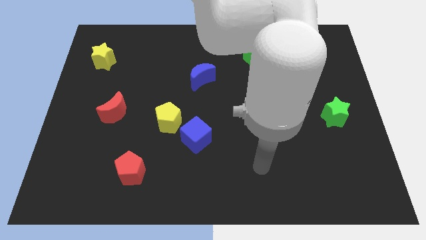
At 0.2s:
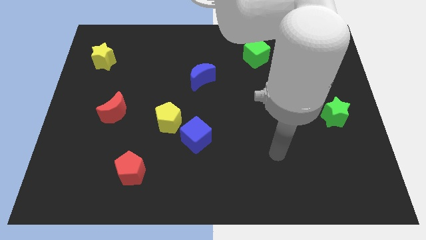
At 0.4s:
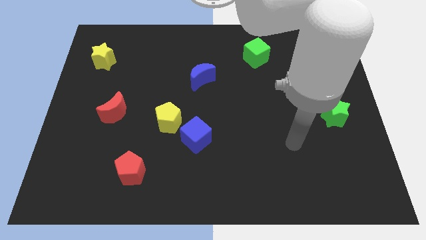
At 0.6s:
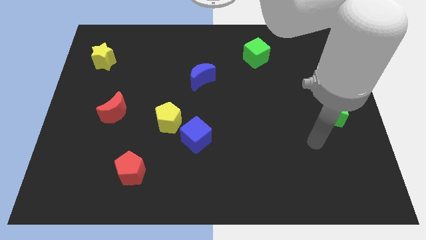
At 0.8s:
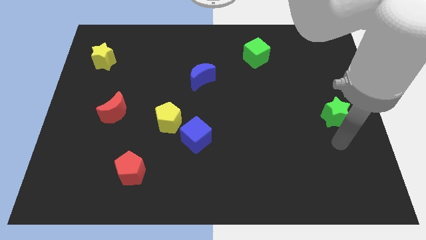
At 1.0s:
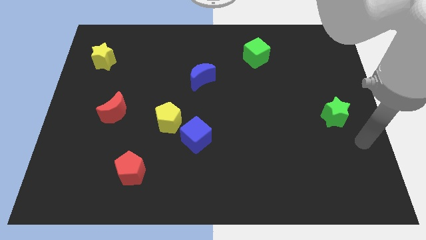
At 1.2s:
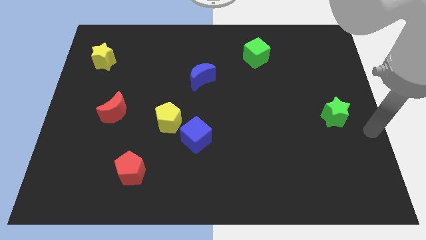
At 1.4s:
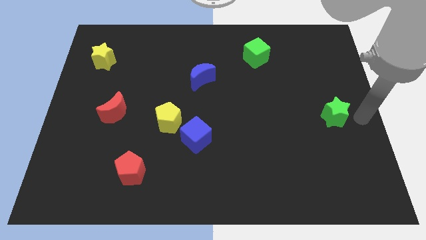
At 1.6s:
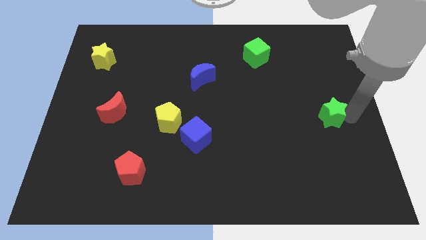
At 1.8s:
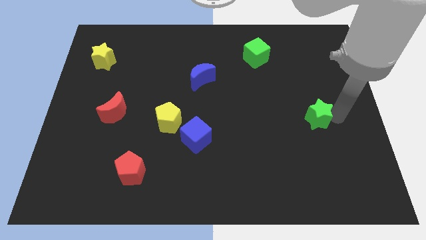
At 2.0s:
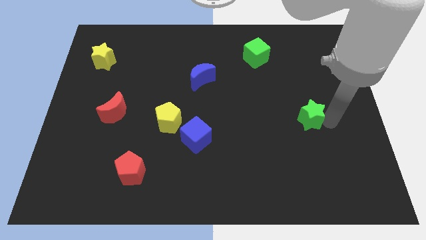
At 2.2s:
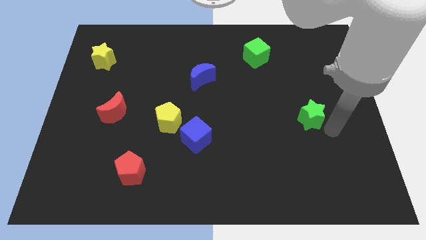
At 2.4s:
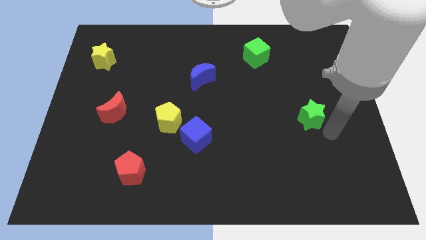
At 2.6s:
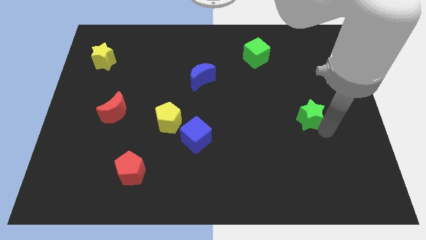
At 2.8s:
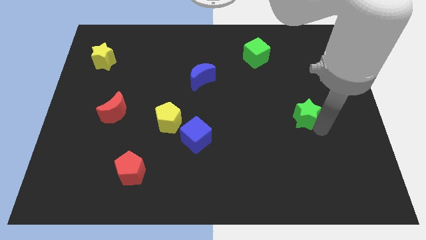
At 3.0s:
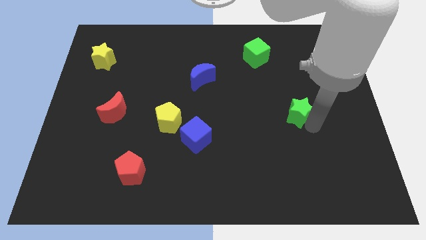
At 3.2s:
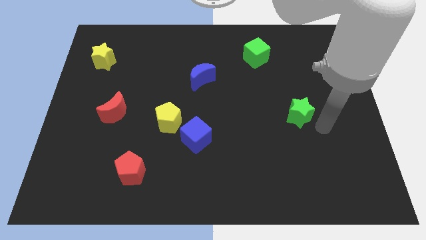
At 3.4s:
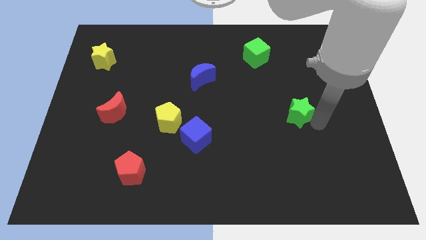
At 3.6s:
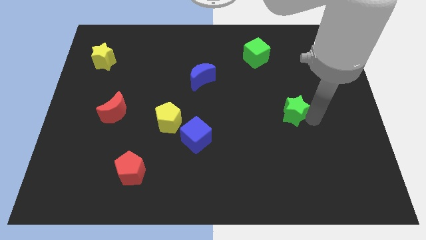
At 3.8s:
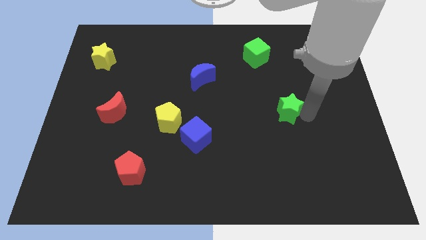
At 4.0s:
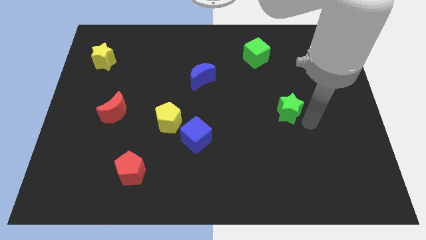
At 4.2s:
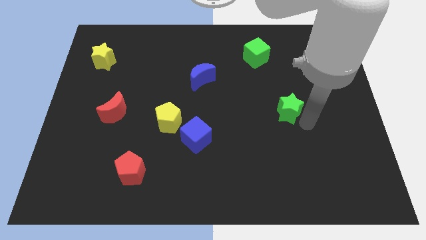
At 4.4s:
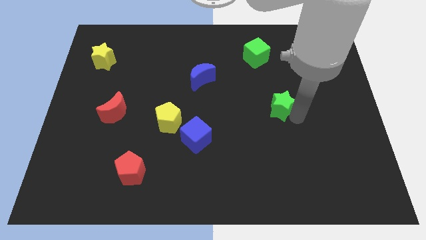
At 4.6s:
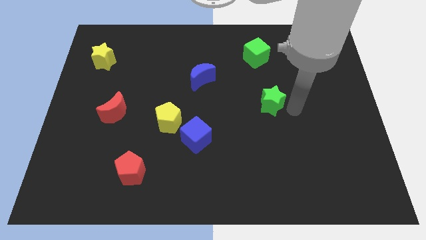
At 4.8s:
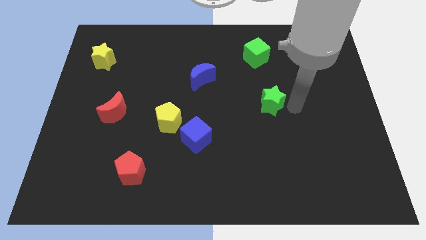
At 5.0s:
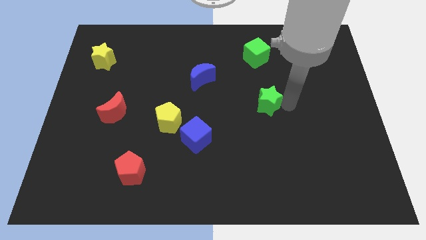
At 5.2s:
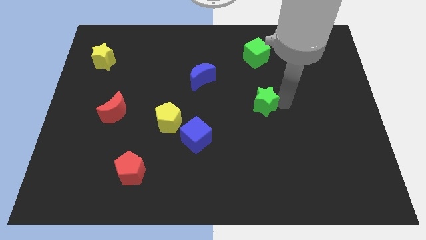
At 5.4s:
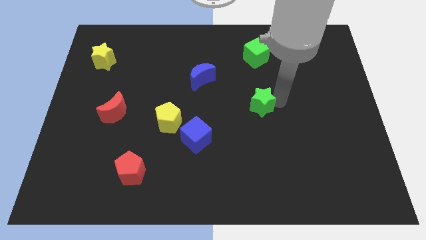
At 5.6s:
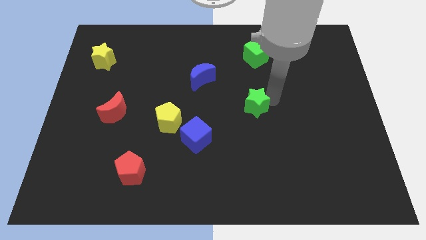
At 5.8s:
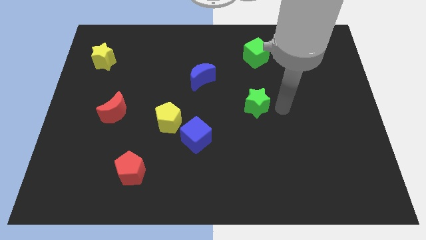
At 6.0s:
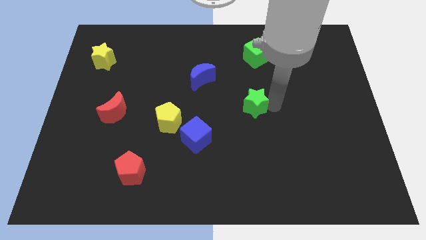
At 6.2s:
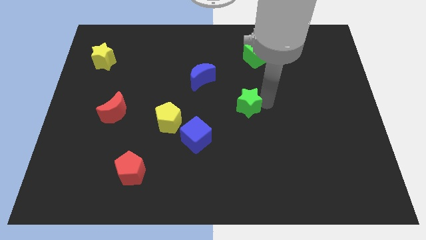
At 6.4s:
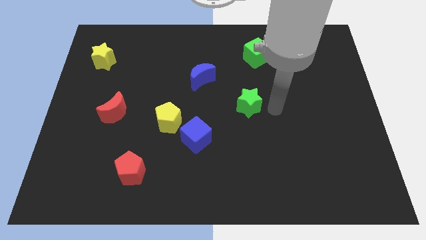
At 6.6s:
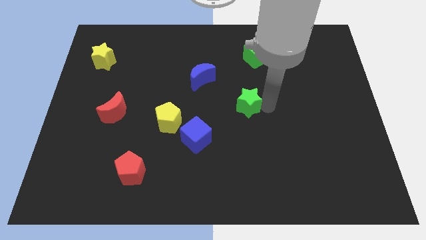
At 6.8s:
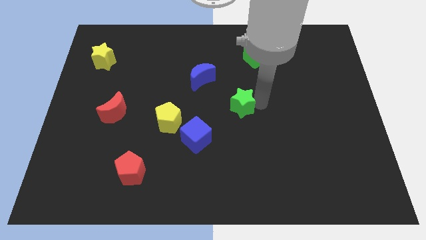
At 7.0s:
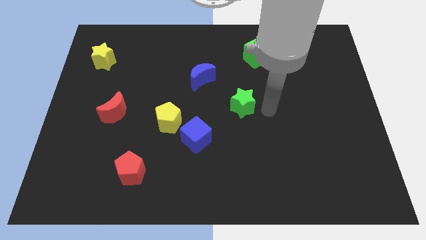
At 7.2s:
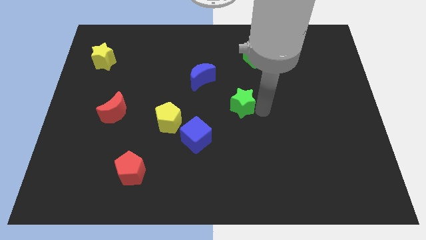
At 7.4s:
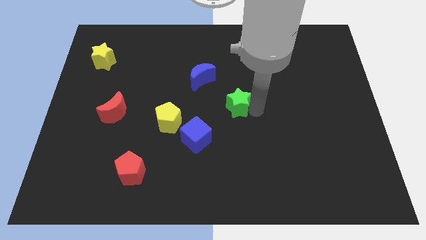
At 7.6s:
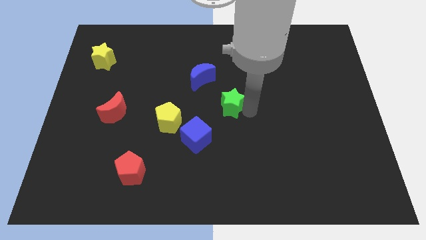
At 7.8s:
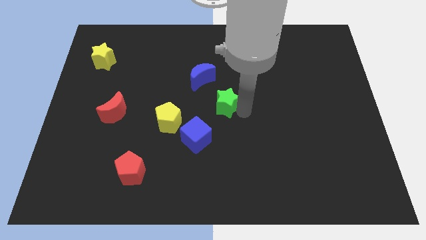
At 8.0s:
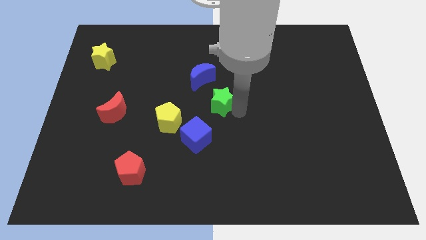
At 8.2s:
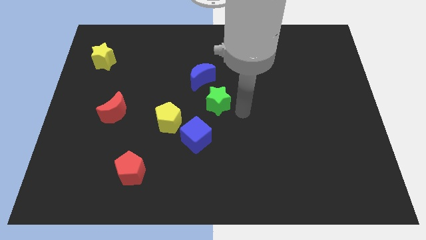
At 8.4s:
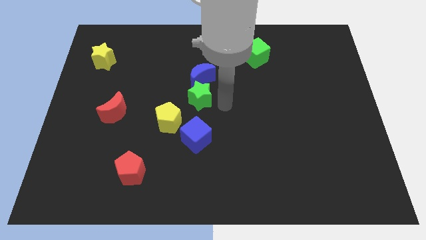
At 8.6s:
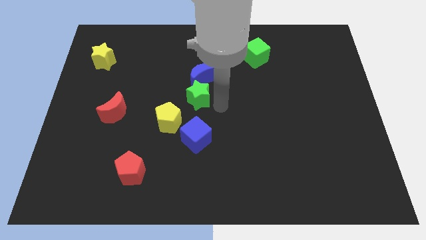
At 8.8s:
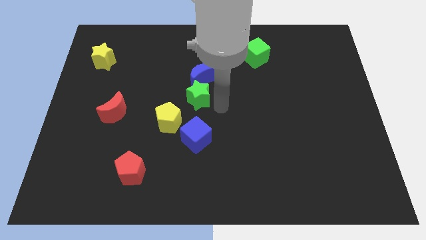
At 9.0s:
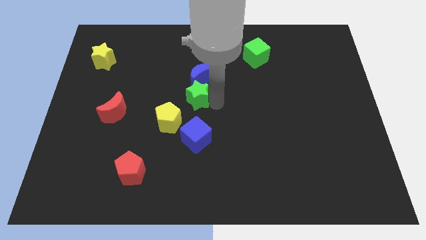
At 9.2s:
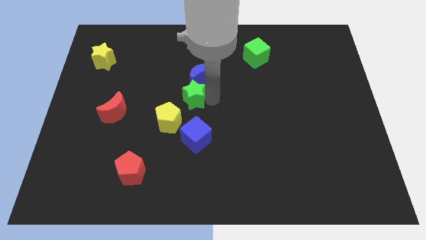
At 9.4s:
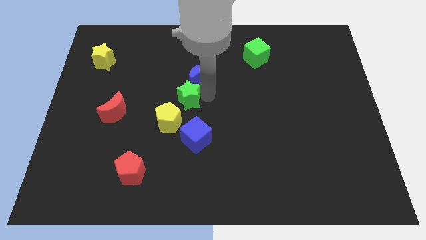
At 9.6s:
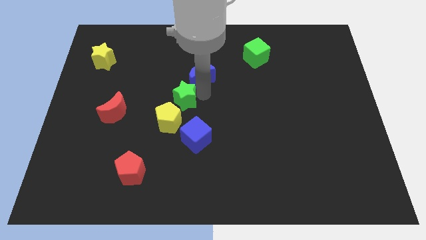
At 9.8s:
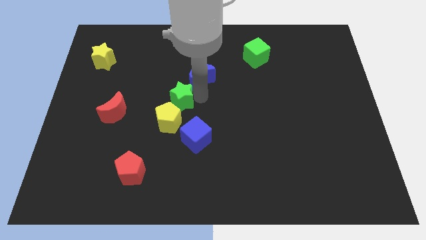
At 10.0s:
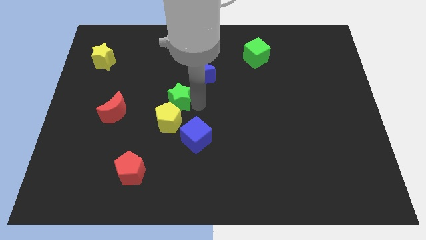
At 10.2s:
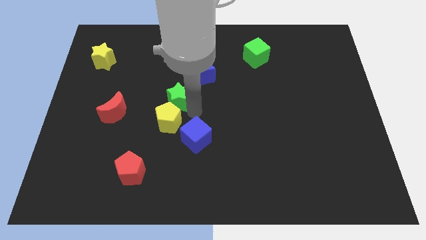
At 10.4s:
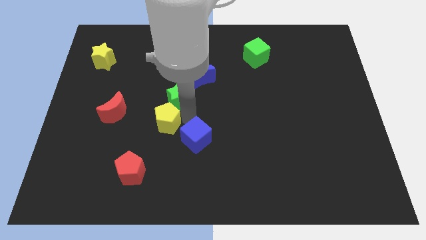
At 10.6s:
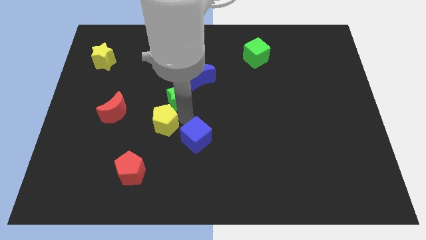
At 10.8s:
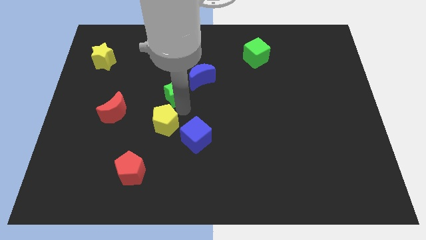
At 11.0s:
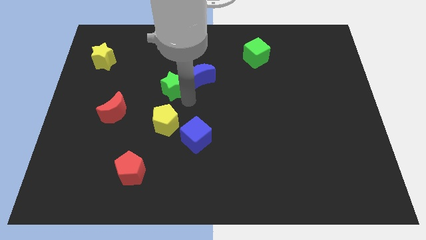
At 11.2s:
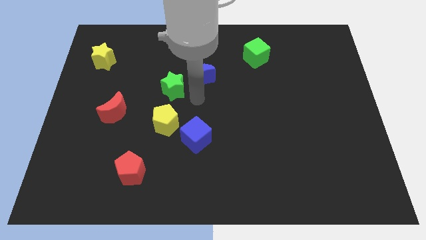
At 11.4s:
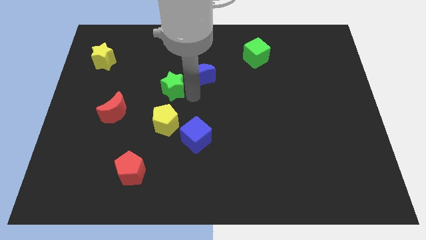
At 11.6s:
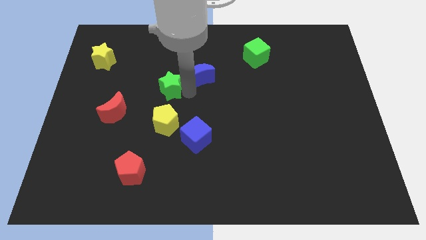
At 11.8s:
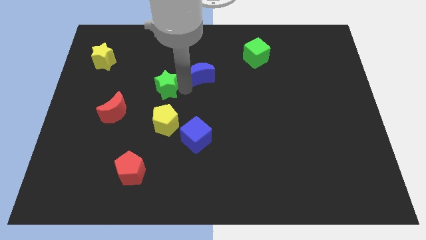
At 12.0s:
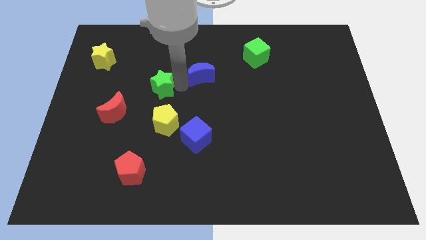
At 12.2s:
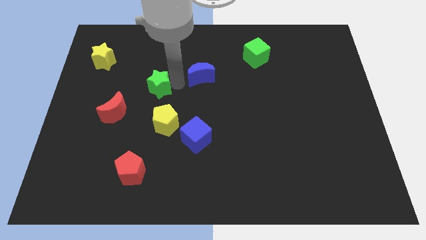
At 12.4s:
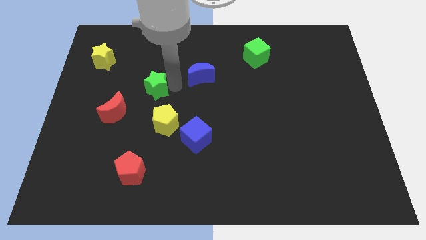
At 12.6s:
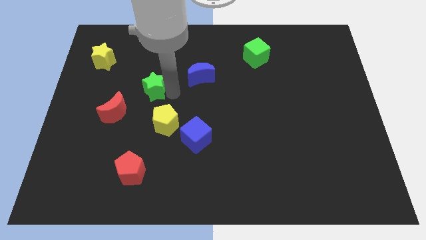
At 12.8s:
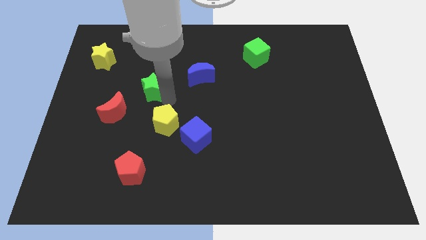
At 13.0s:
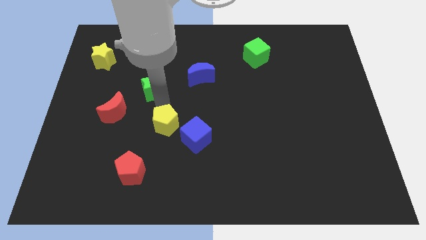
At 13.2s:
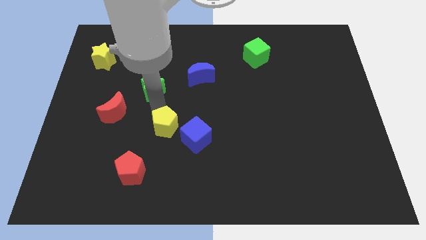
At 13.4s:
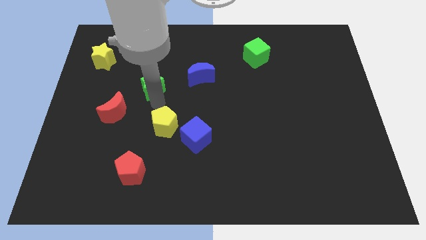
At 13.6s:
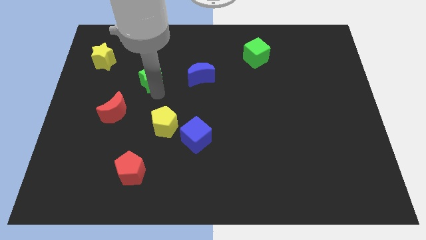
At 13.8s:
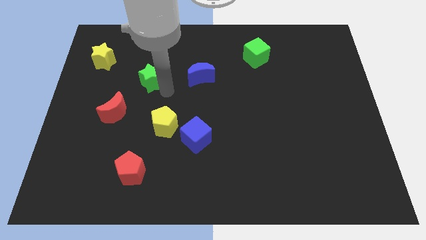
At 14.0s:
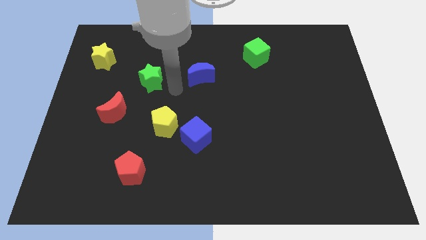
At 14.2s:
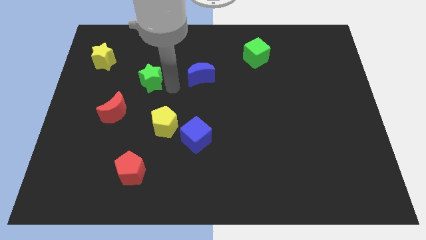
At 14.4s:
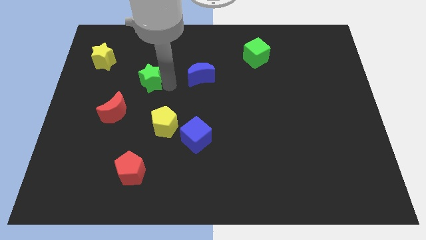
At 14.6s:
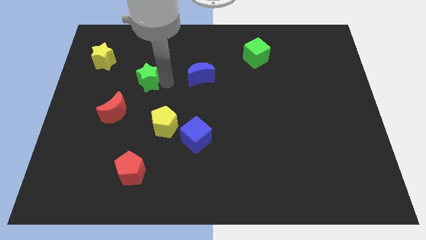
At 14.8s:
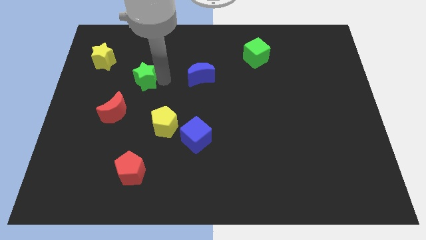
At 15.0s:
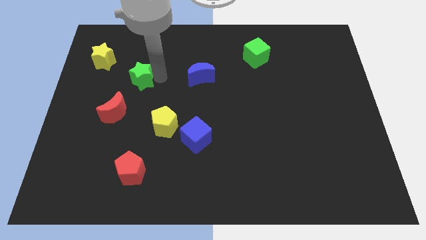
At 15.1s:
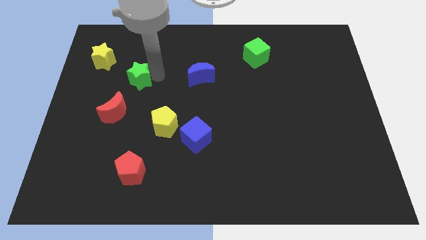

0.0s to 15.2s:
put the green star to the bottom right of the yellow star

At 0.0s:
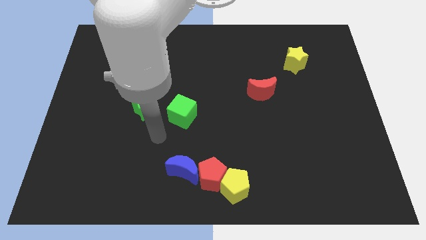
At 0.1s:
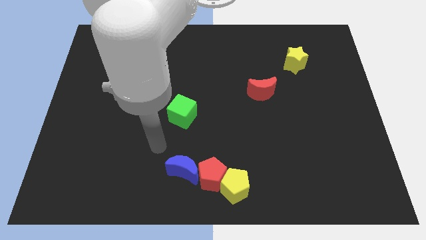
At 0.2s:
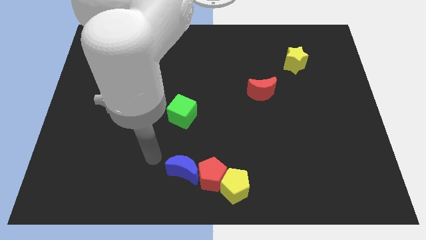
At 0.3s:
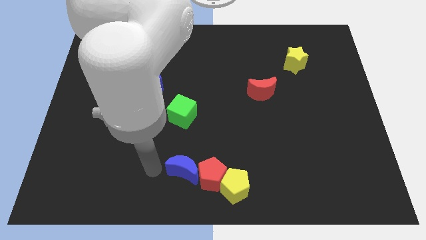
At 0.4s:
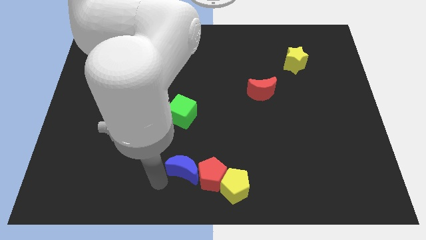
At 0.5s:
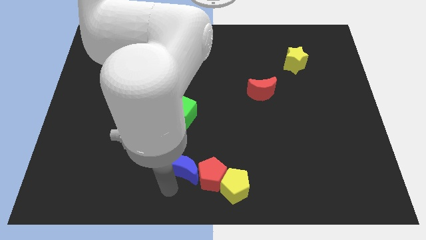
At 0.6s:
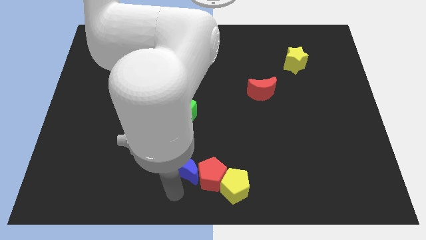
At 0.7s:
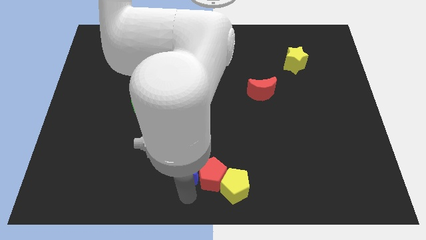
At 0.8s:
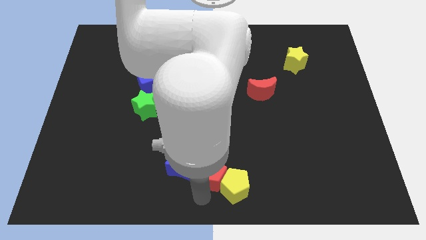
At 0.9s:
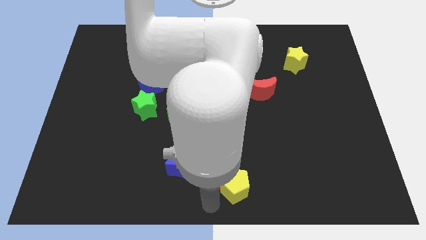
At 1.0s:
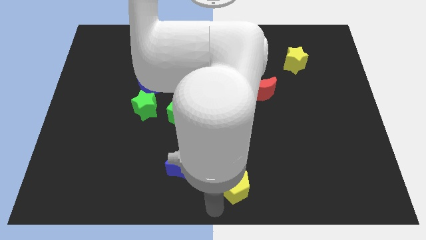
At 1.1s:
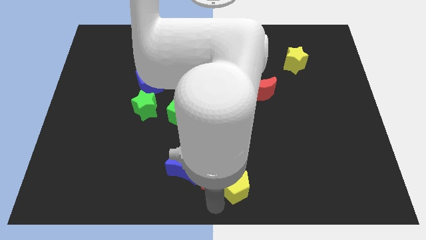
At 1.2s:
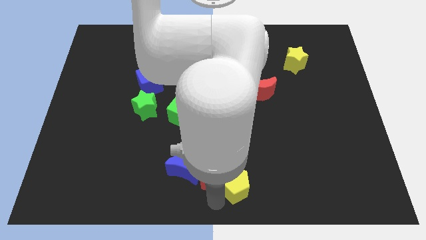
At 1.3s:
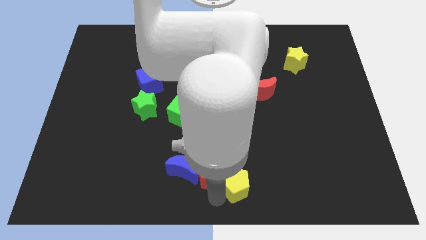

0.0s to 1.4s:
push the red pentagon diagonally up and to the right of the blue moon
